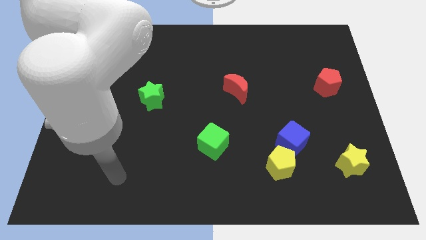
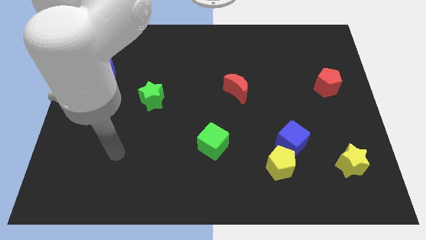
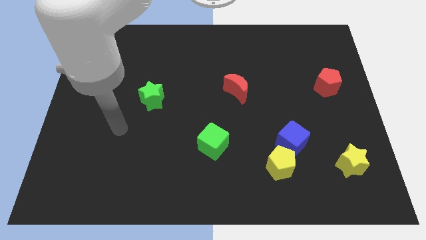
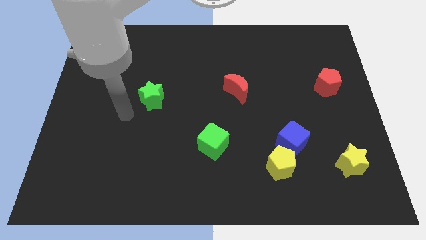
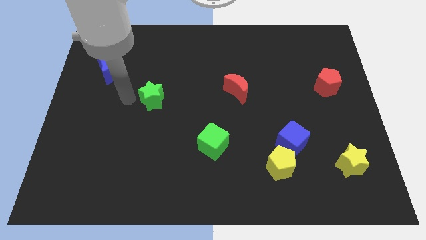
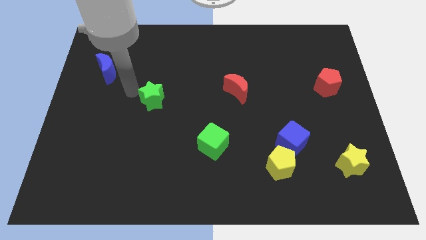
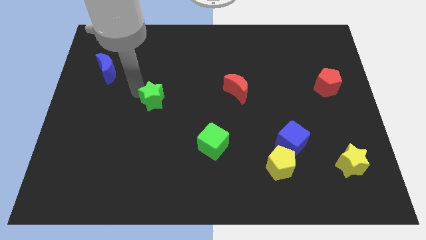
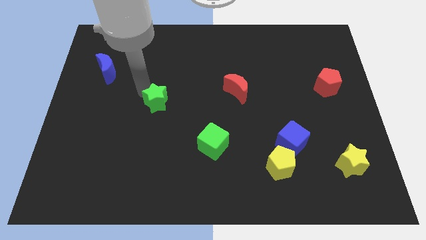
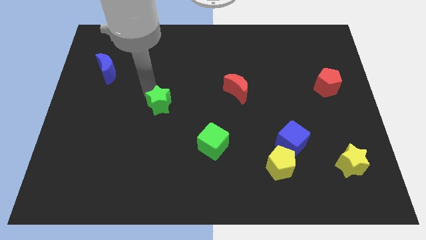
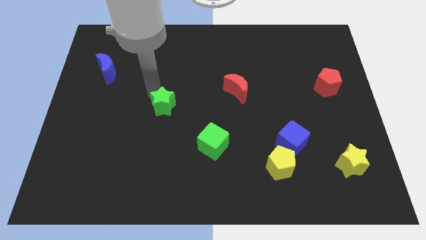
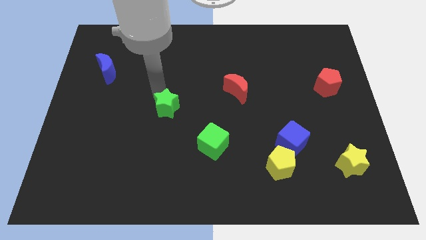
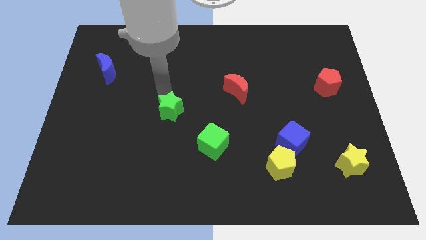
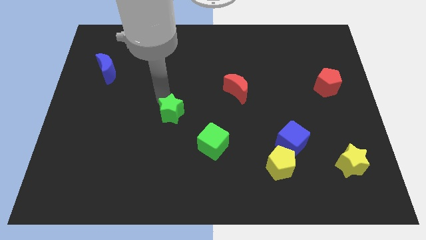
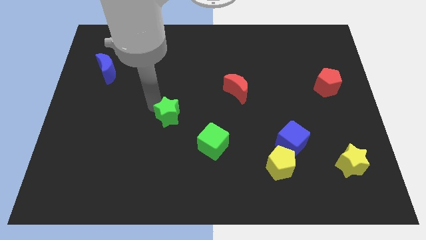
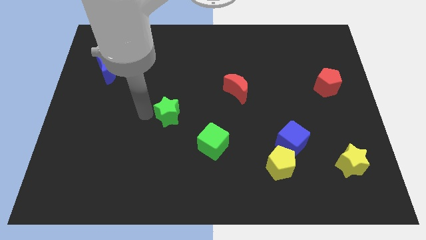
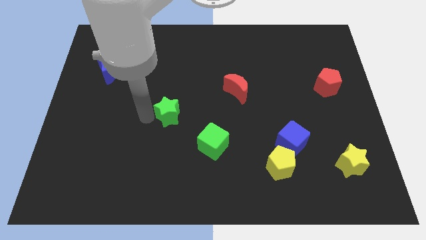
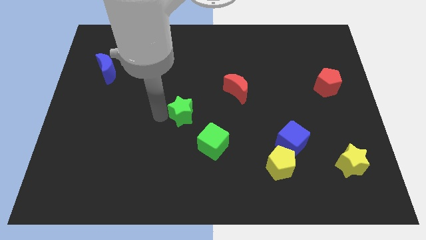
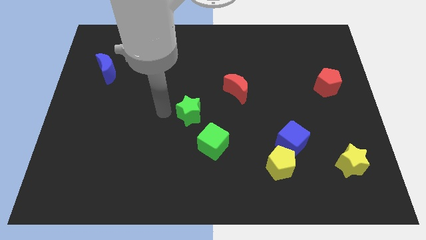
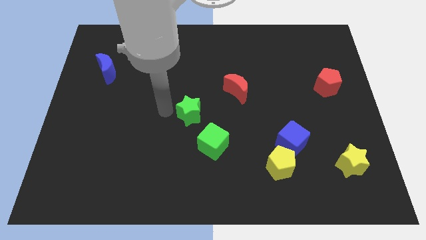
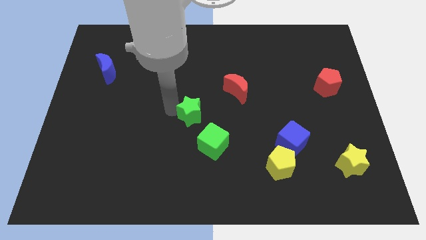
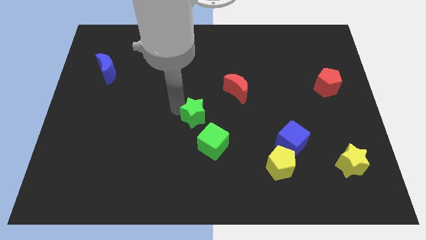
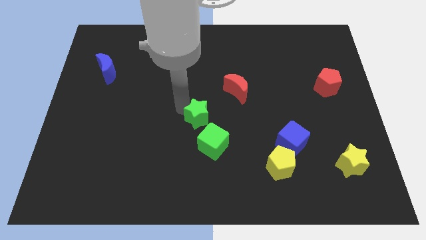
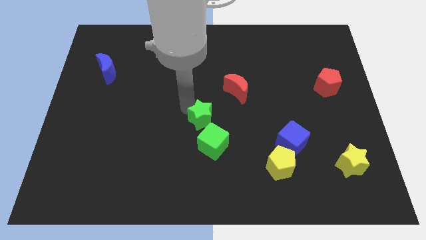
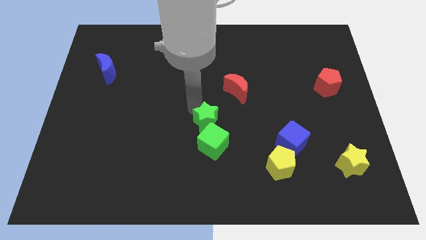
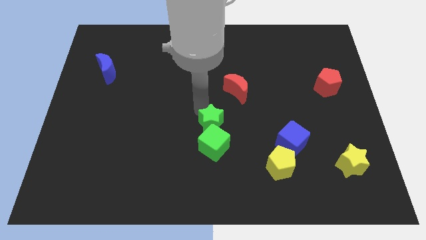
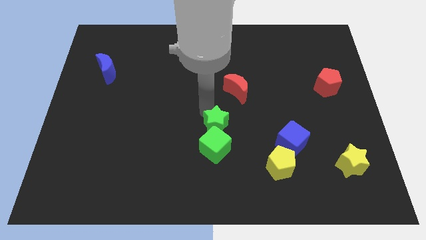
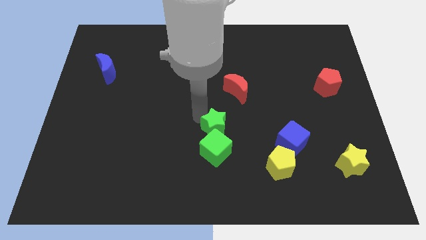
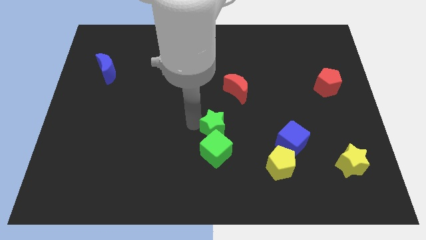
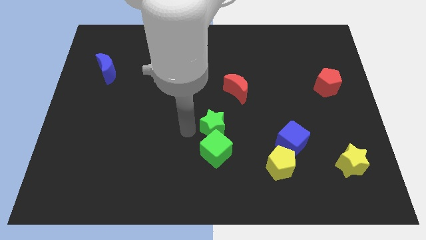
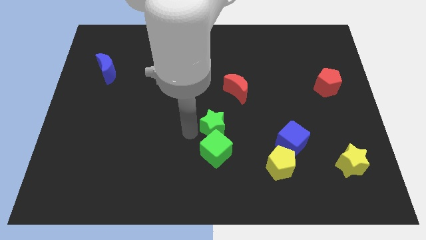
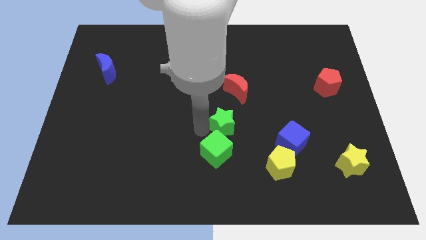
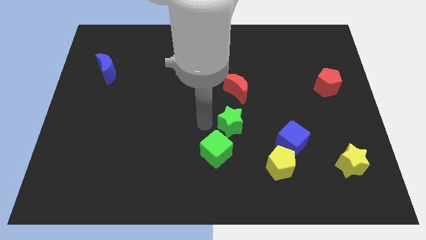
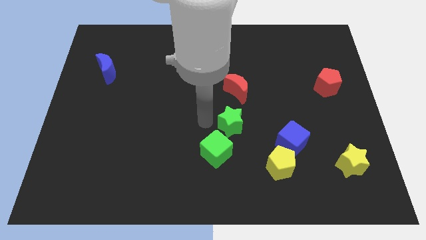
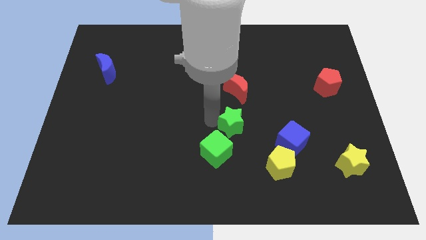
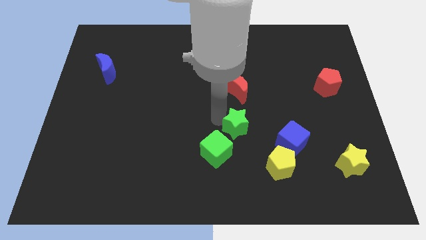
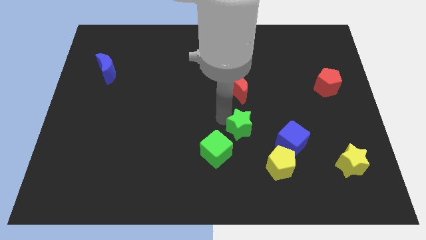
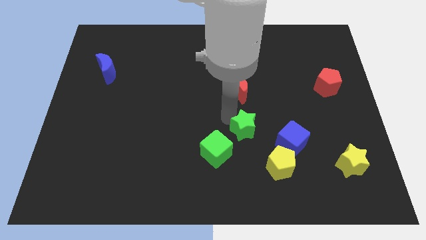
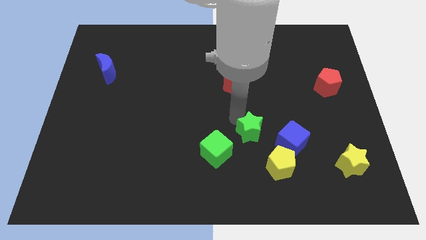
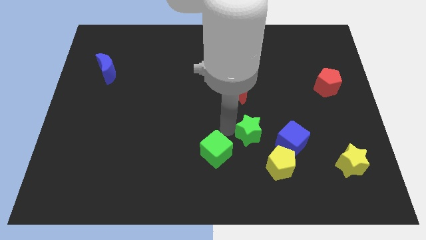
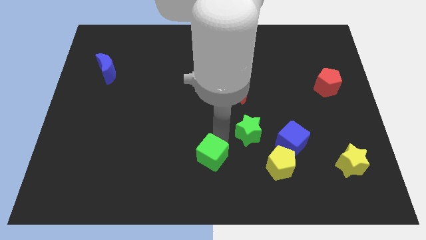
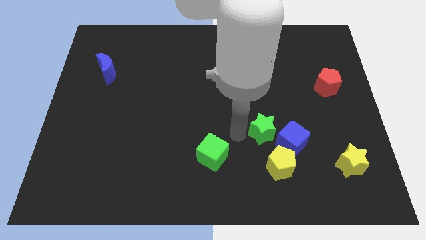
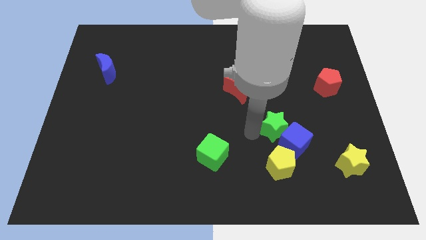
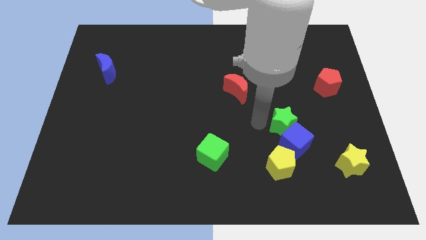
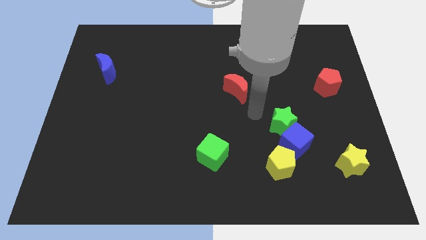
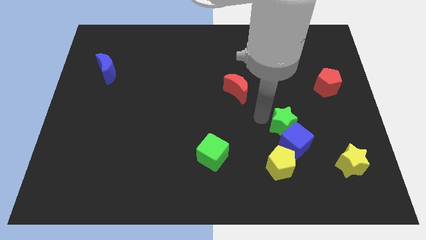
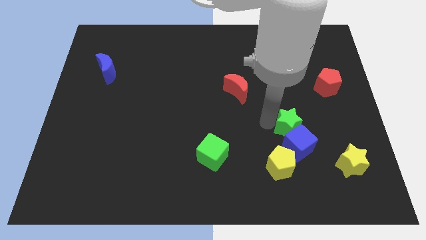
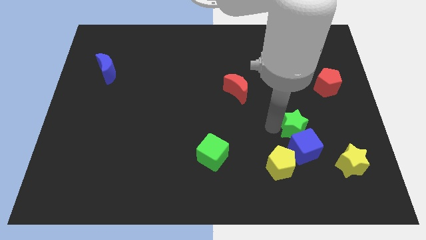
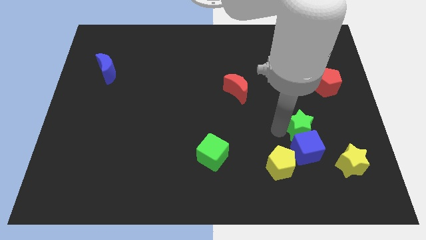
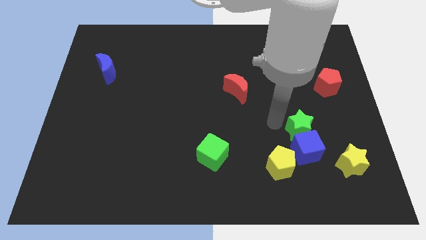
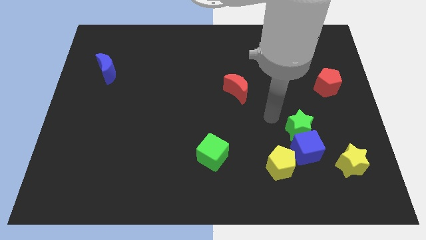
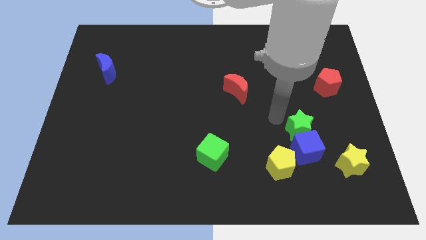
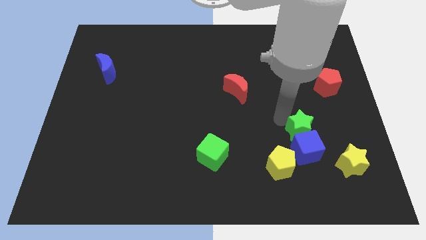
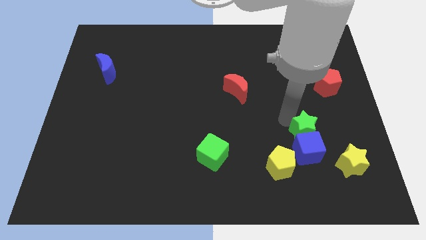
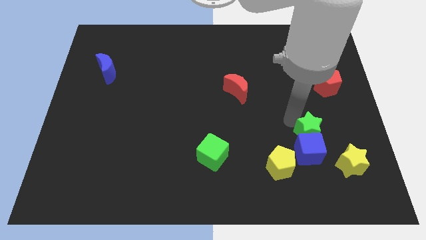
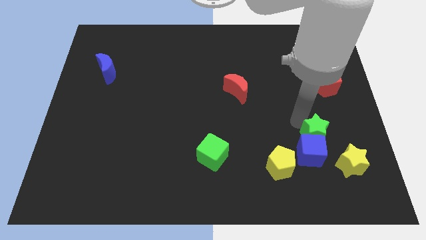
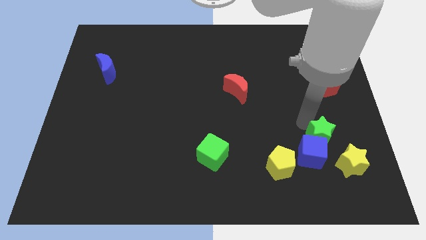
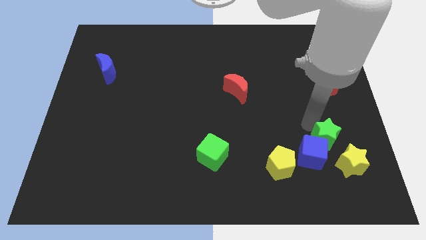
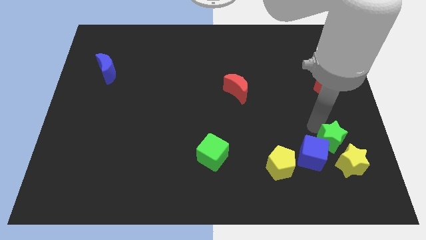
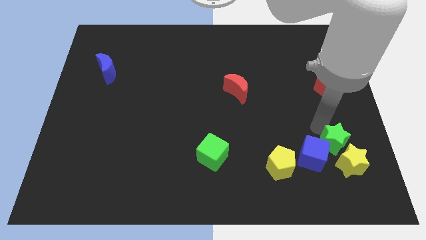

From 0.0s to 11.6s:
push the green star towards the yellow star

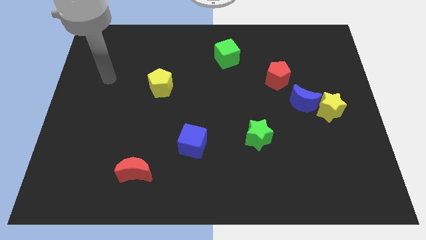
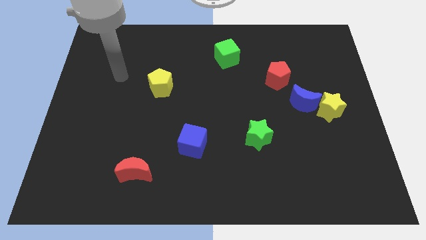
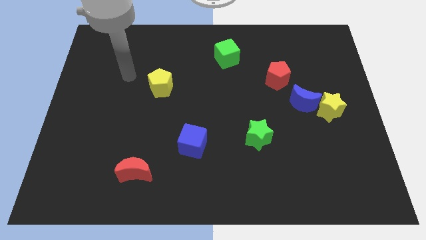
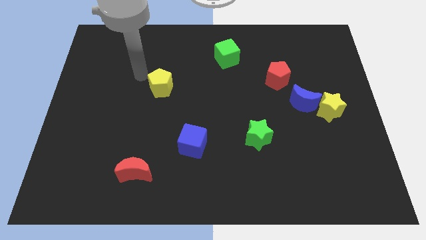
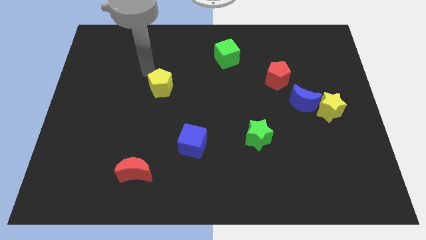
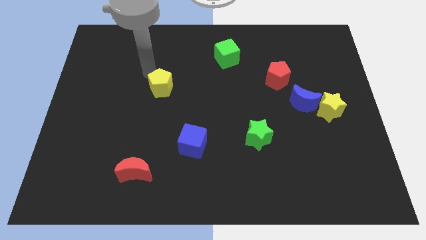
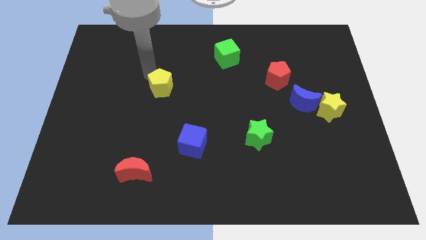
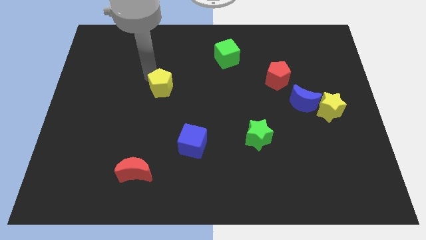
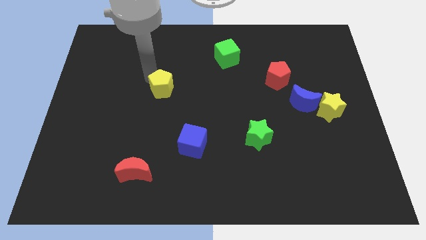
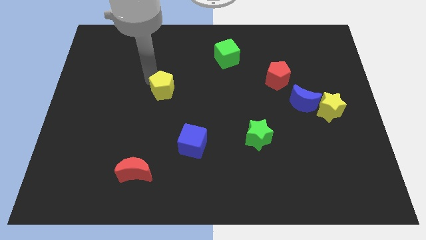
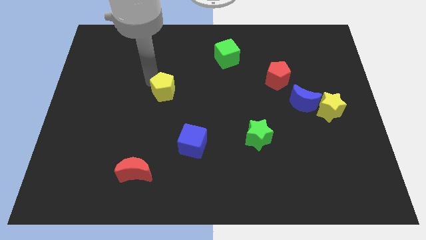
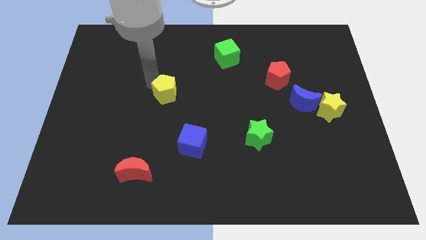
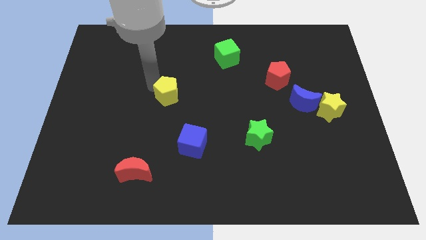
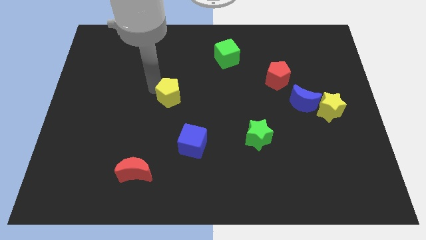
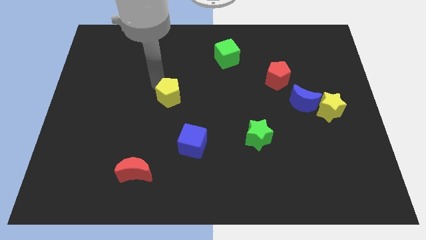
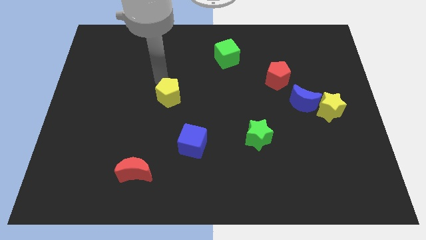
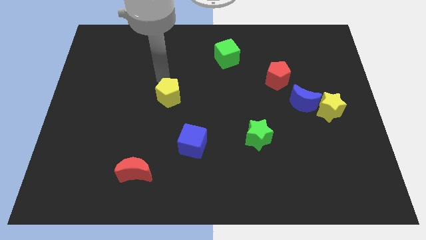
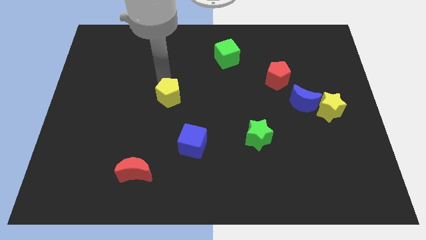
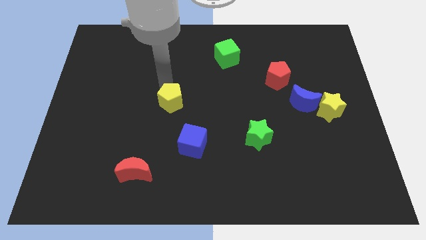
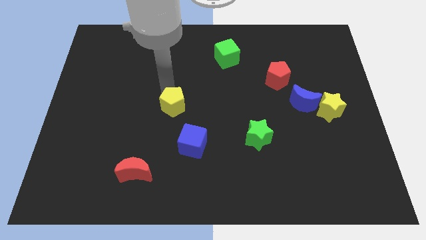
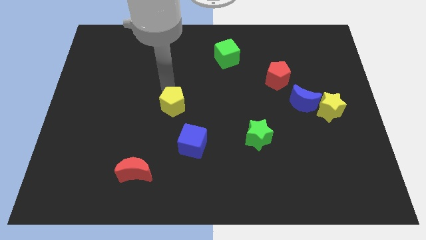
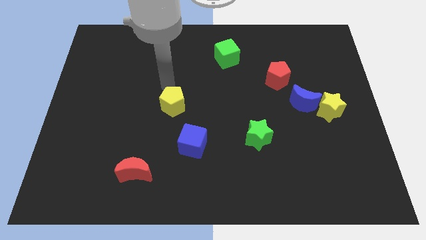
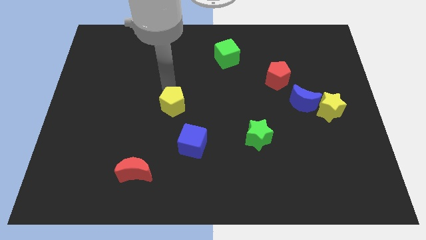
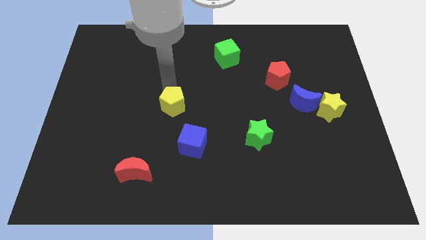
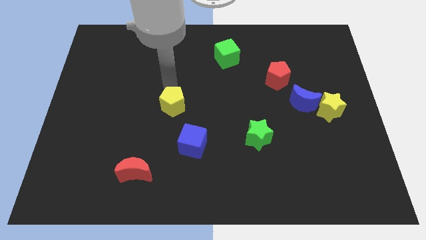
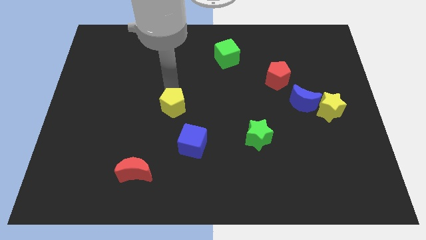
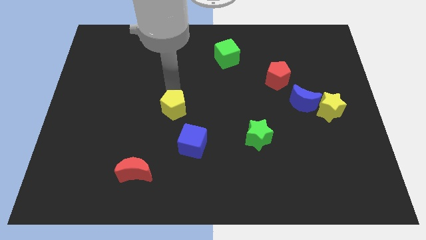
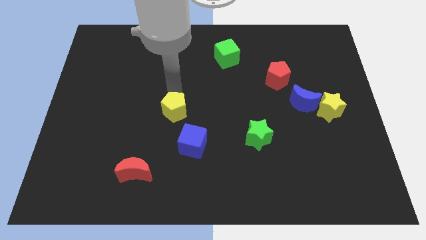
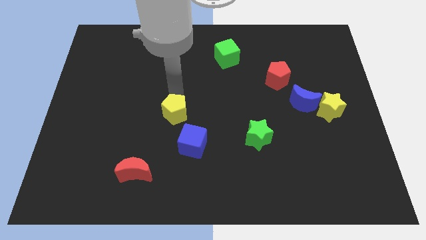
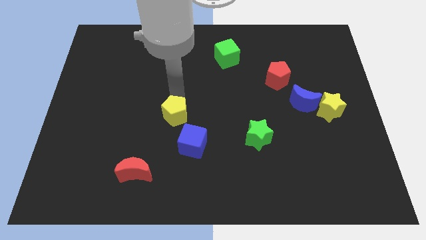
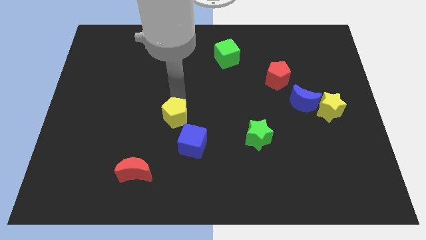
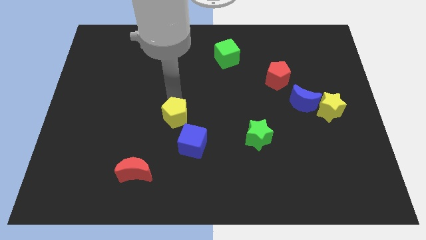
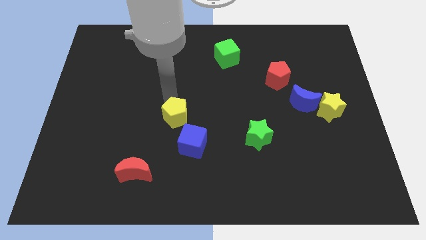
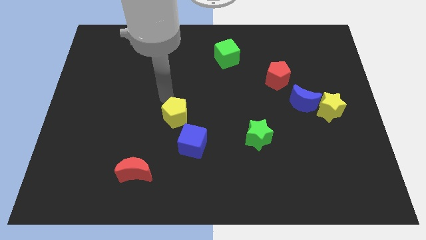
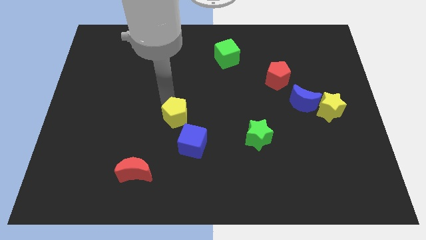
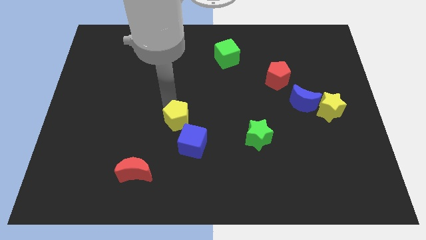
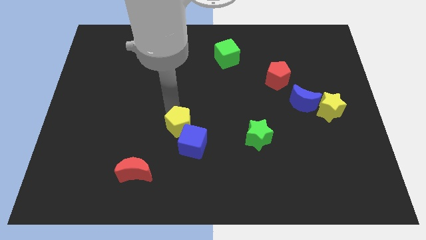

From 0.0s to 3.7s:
slide the yellow pentagon to the blue cube
